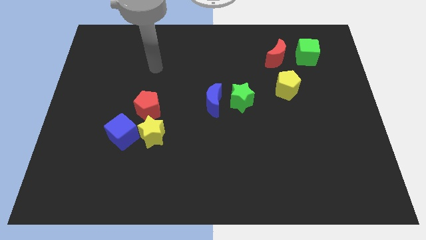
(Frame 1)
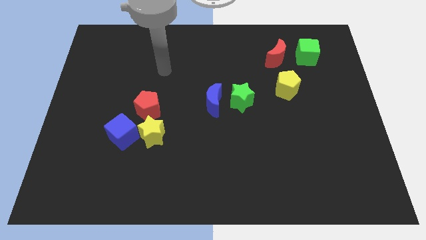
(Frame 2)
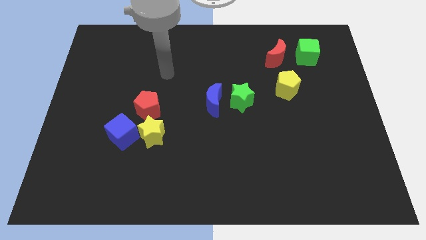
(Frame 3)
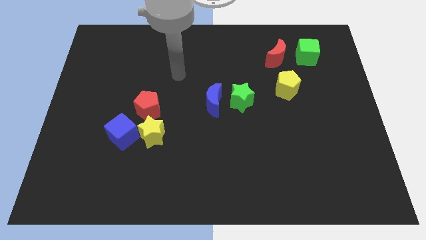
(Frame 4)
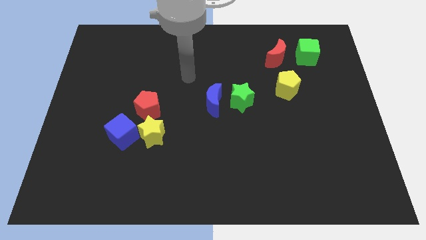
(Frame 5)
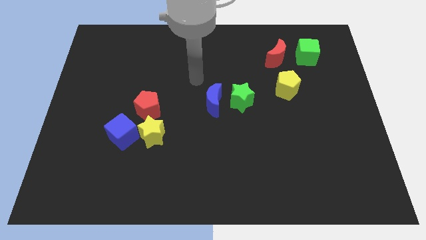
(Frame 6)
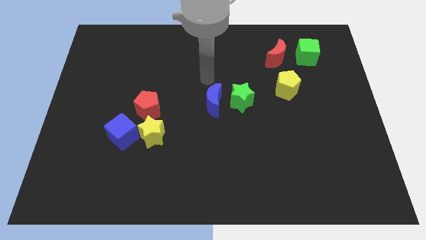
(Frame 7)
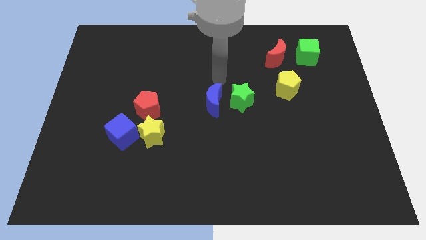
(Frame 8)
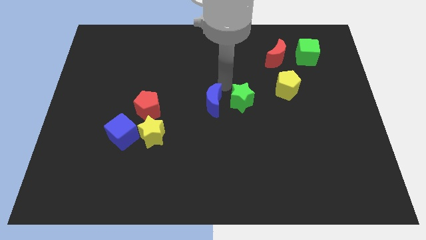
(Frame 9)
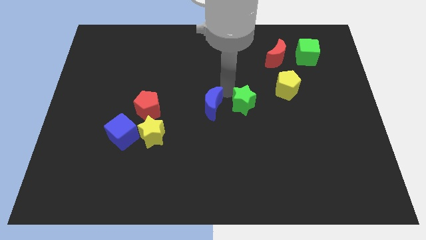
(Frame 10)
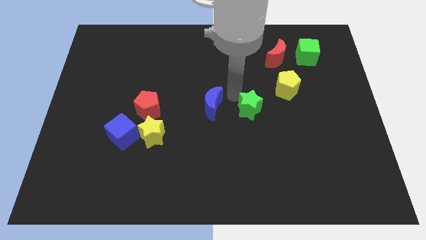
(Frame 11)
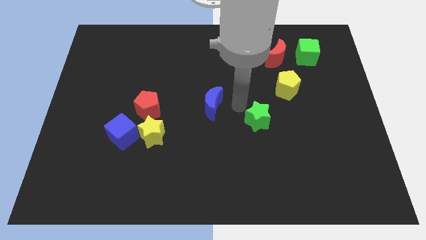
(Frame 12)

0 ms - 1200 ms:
pull the blue moon apart from the green star

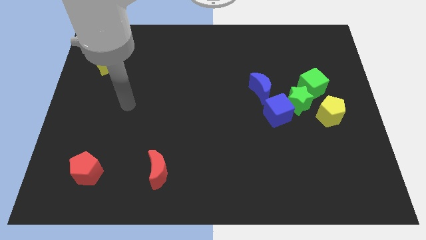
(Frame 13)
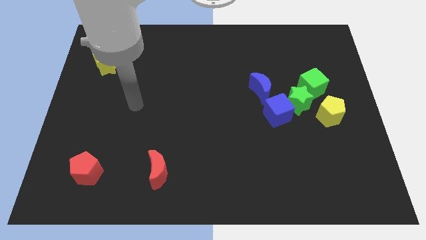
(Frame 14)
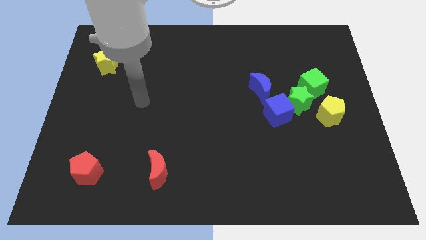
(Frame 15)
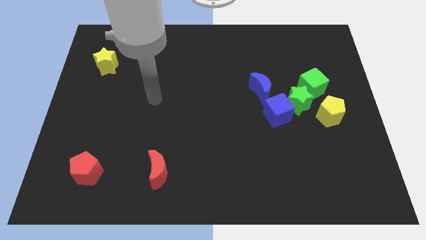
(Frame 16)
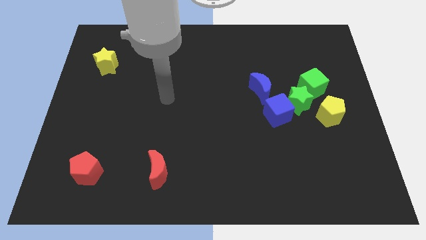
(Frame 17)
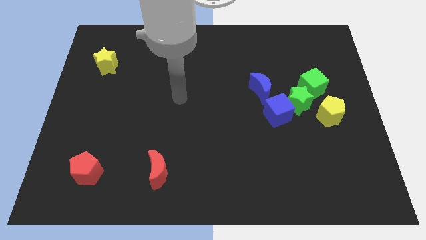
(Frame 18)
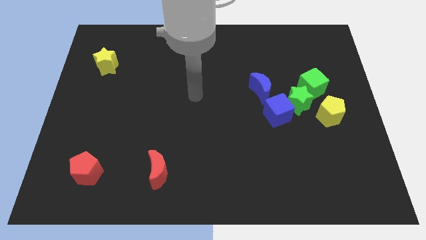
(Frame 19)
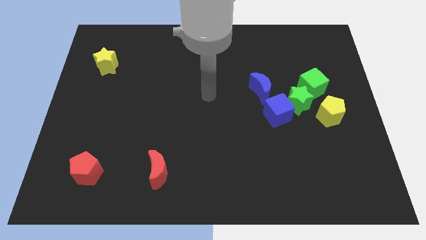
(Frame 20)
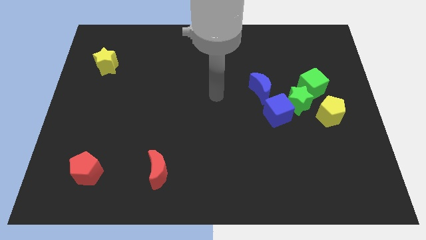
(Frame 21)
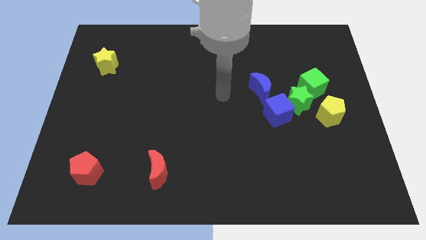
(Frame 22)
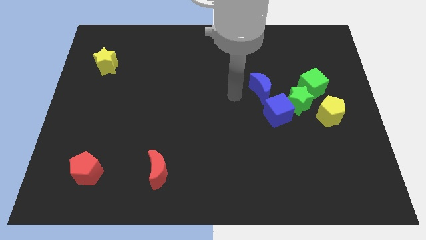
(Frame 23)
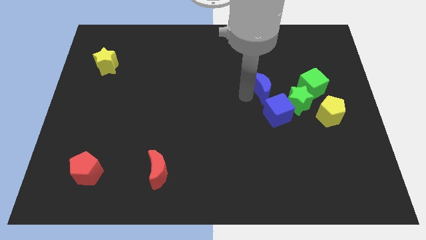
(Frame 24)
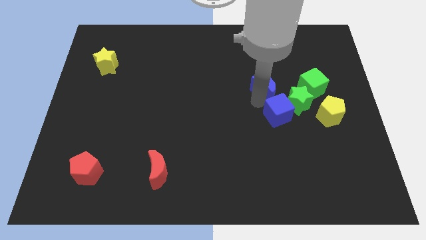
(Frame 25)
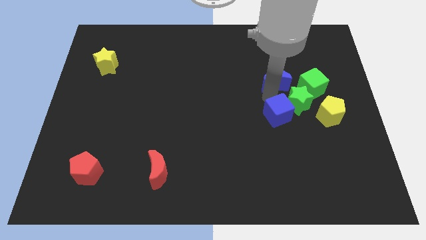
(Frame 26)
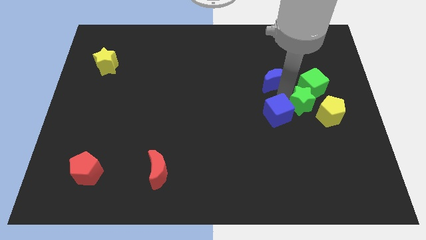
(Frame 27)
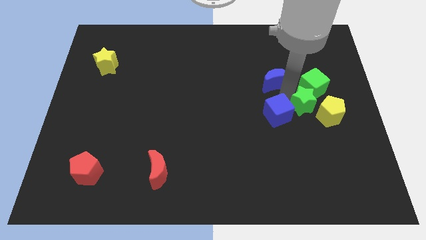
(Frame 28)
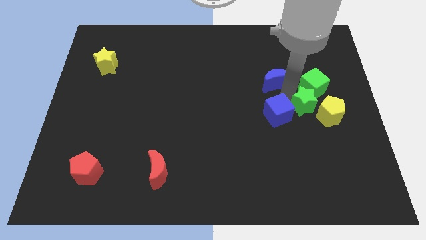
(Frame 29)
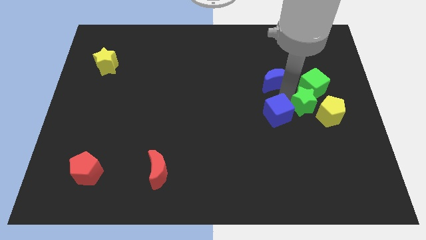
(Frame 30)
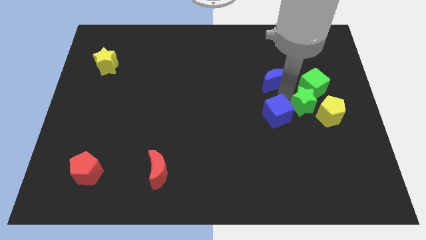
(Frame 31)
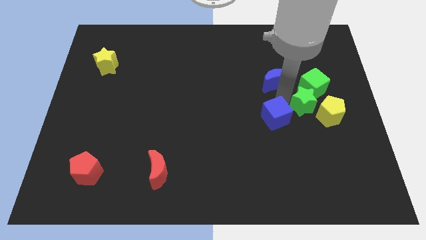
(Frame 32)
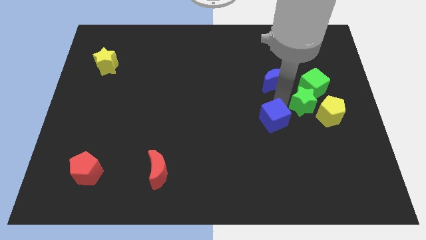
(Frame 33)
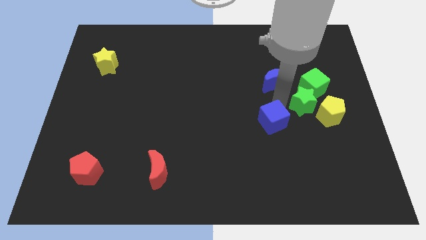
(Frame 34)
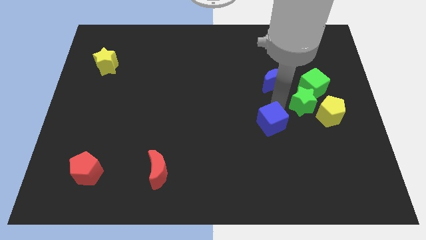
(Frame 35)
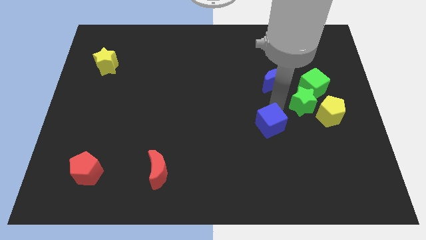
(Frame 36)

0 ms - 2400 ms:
pull the blue cube apart from the green star and blue moon

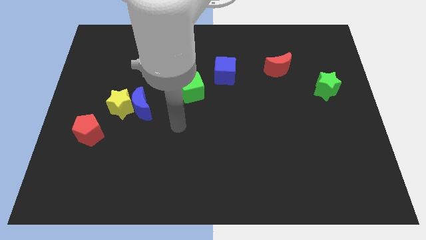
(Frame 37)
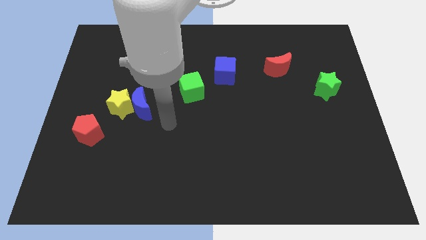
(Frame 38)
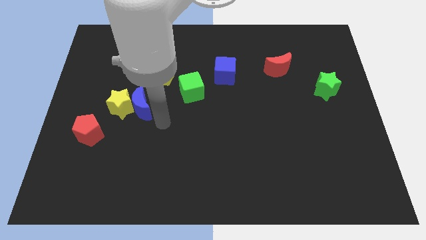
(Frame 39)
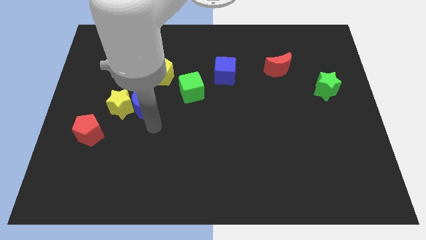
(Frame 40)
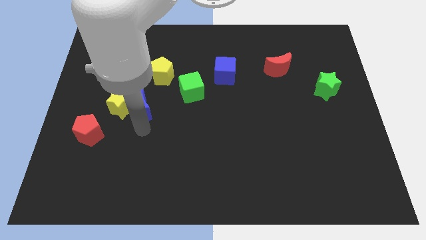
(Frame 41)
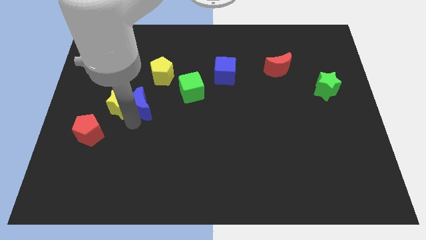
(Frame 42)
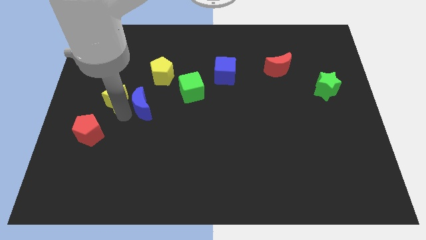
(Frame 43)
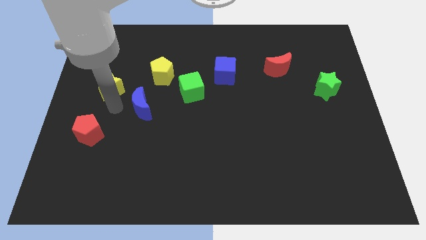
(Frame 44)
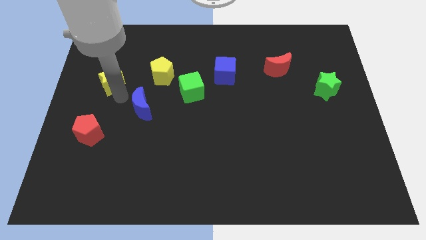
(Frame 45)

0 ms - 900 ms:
separate the blue moon from the yellow star

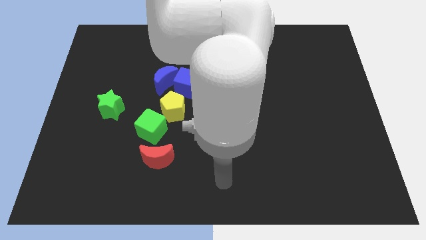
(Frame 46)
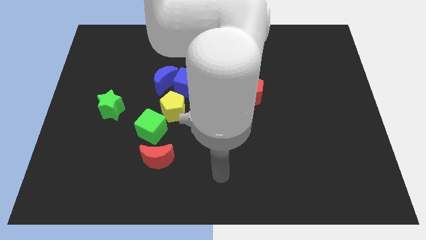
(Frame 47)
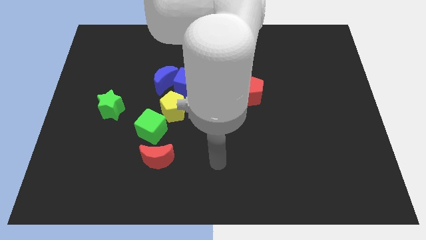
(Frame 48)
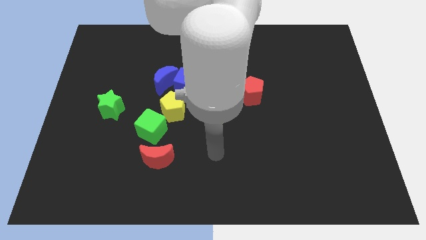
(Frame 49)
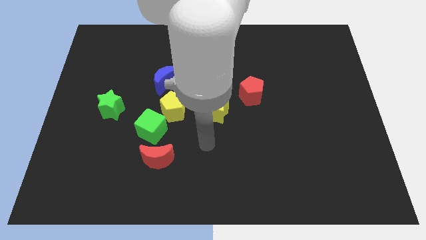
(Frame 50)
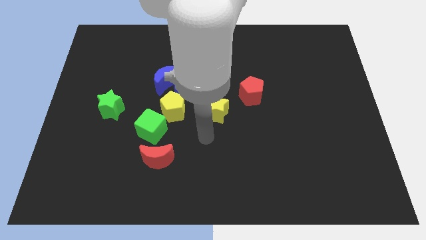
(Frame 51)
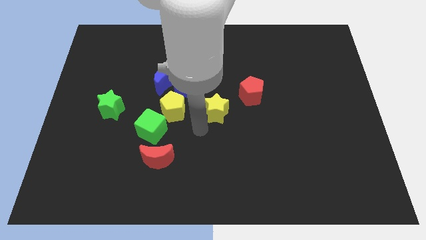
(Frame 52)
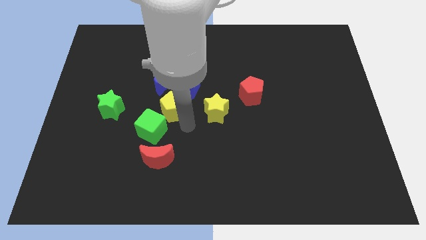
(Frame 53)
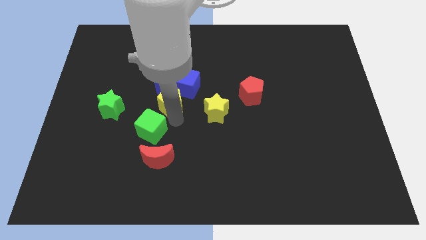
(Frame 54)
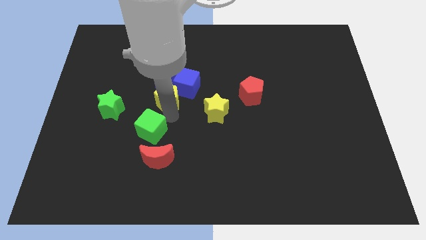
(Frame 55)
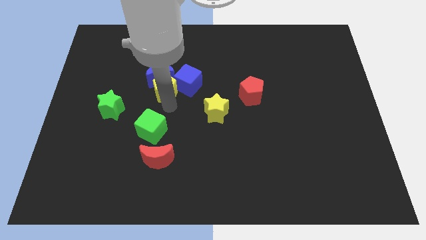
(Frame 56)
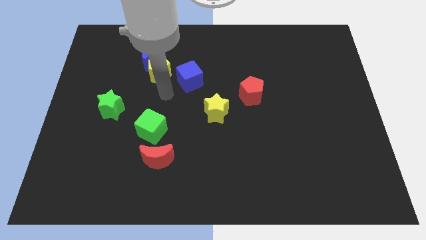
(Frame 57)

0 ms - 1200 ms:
pull the blue cube apart from the blue moon and yellow pentagon

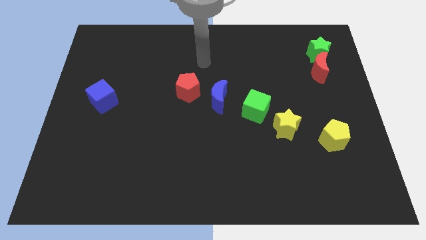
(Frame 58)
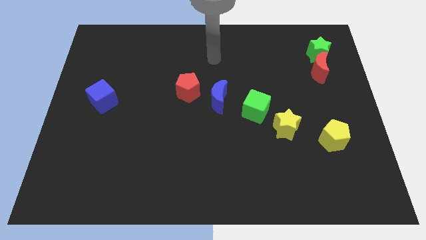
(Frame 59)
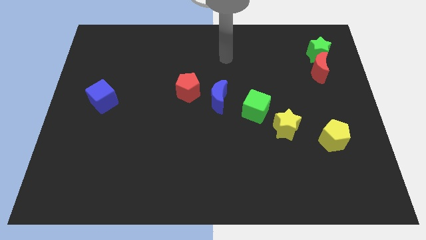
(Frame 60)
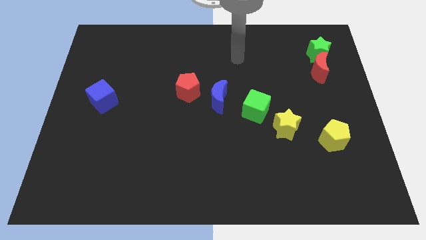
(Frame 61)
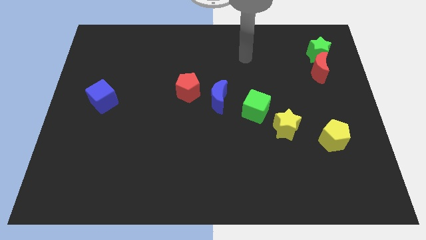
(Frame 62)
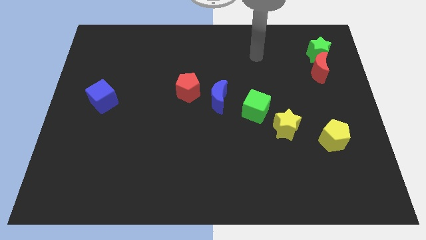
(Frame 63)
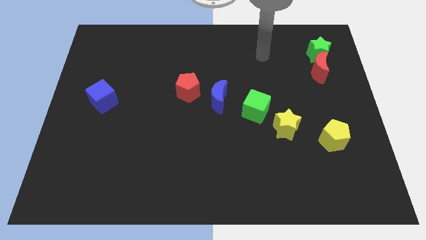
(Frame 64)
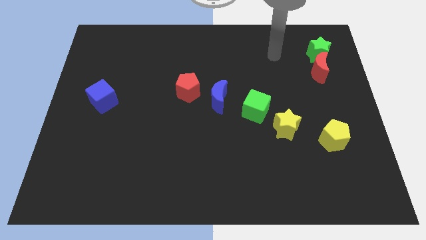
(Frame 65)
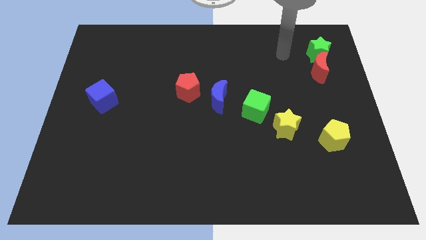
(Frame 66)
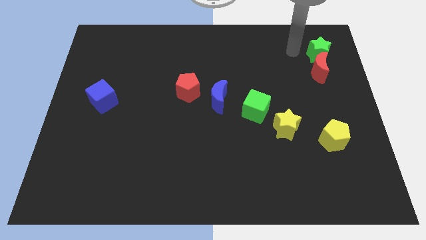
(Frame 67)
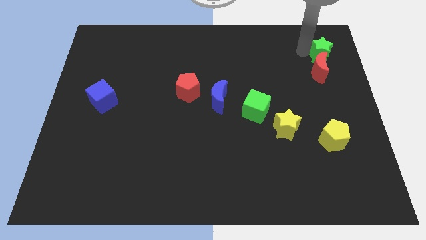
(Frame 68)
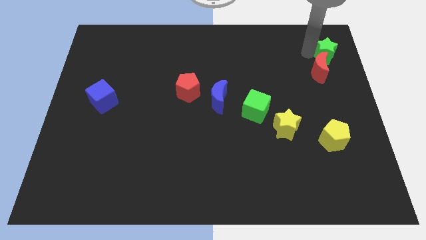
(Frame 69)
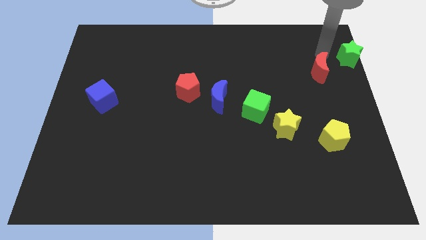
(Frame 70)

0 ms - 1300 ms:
separate the red moon from the green star

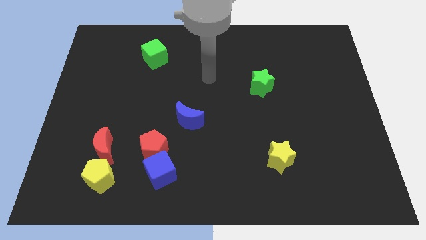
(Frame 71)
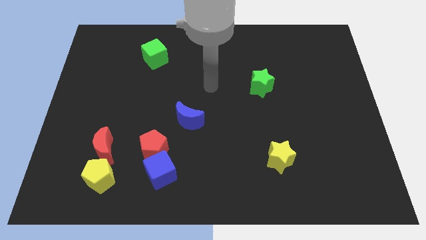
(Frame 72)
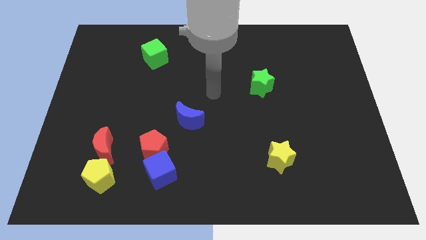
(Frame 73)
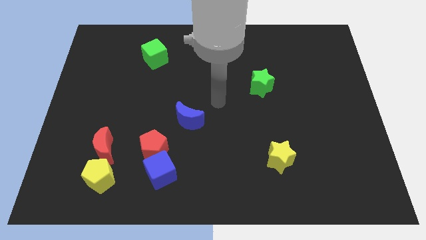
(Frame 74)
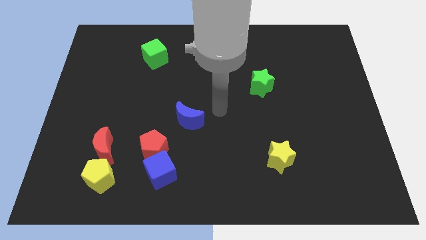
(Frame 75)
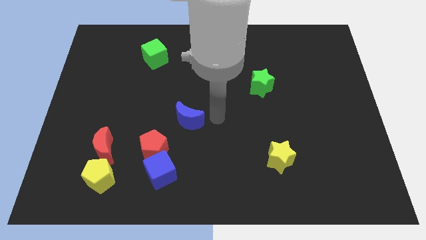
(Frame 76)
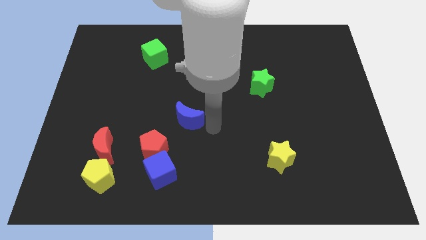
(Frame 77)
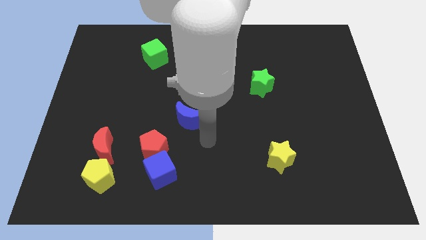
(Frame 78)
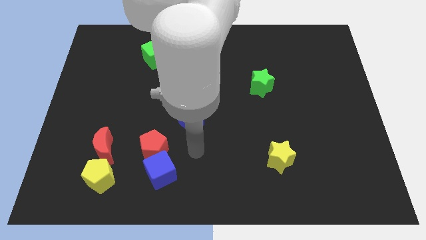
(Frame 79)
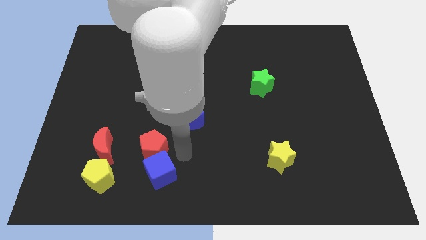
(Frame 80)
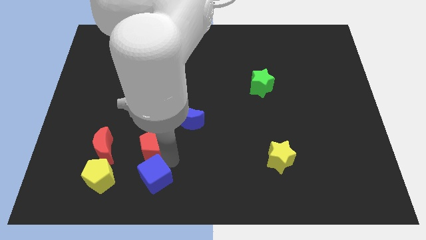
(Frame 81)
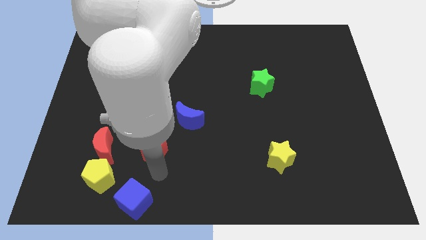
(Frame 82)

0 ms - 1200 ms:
pull the red pentagon apart from the blue cube

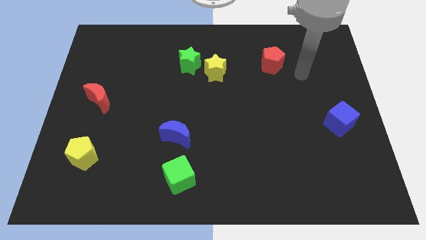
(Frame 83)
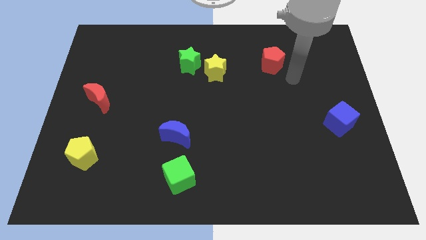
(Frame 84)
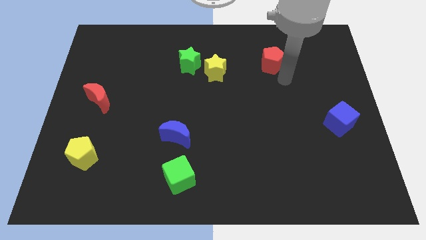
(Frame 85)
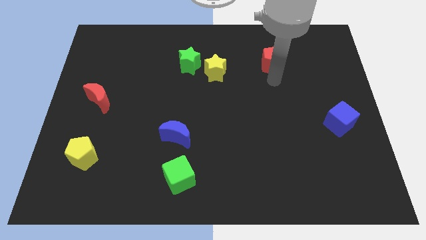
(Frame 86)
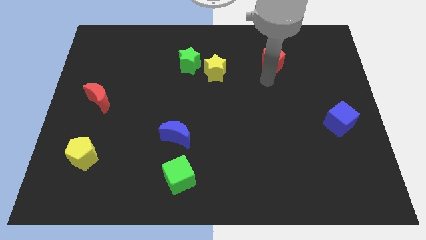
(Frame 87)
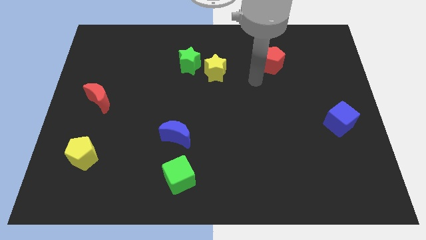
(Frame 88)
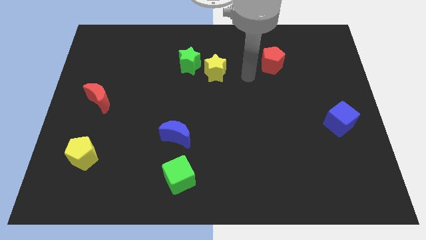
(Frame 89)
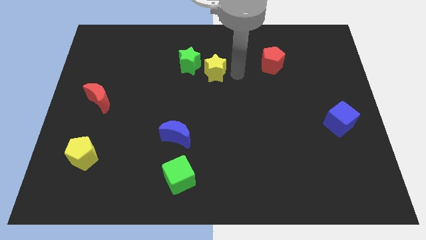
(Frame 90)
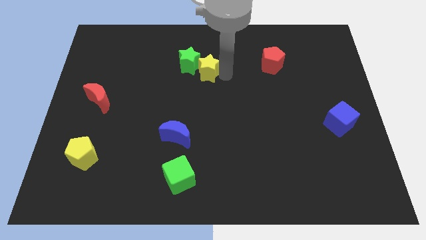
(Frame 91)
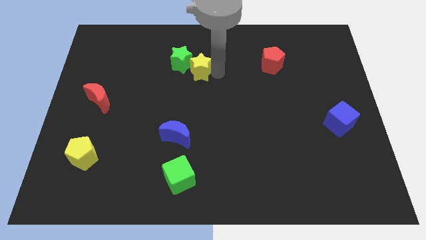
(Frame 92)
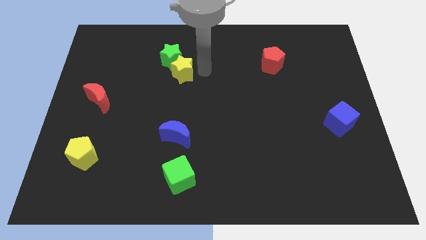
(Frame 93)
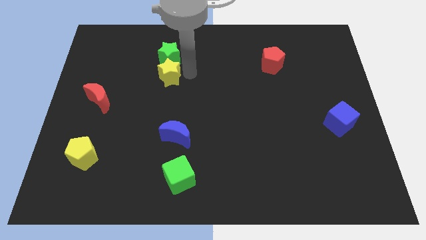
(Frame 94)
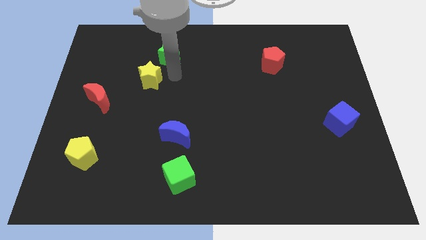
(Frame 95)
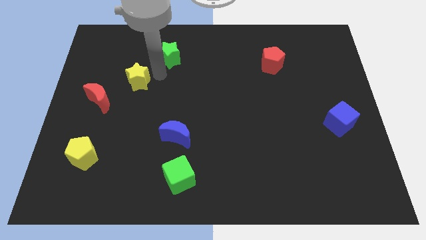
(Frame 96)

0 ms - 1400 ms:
separate the green star from the yellow star
